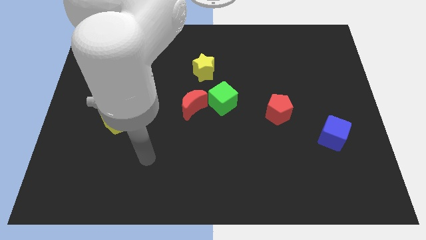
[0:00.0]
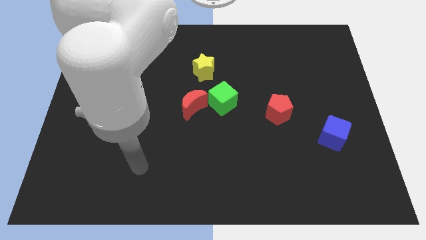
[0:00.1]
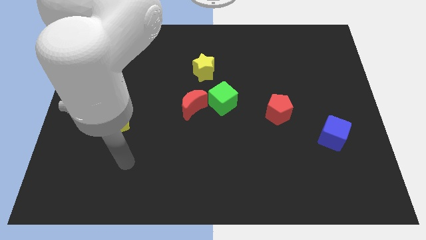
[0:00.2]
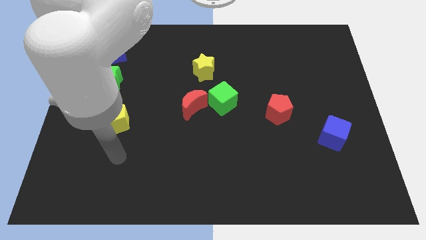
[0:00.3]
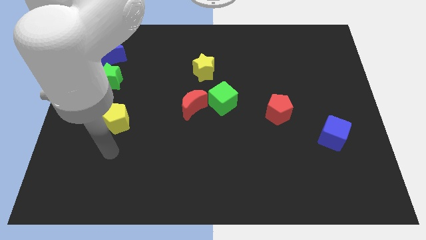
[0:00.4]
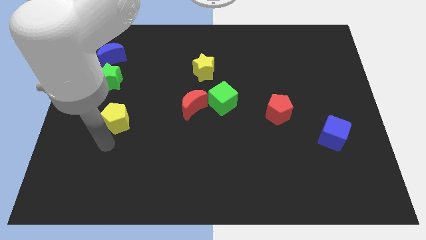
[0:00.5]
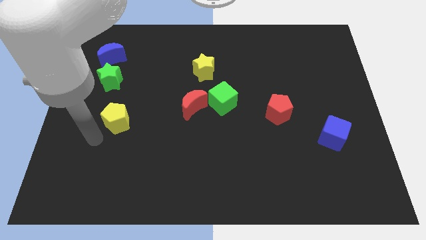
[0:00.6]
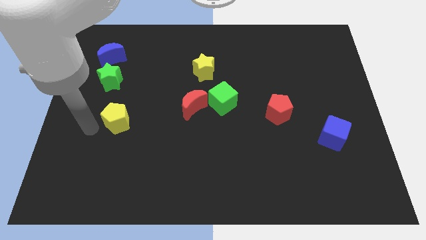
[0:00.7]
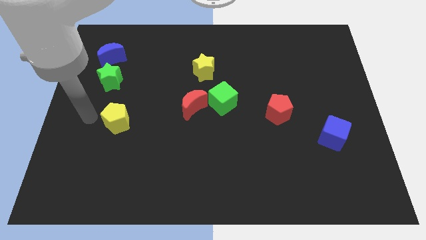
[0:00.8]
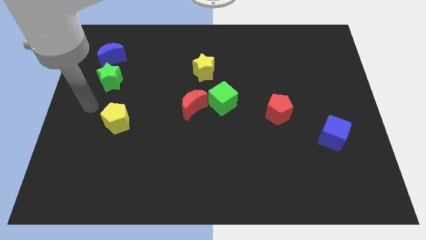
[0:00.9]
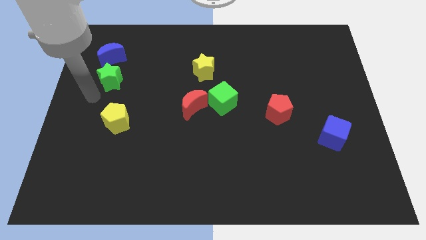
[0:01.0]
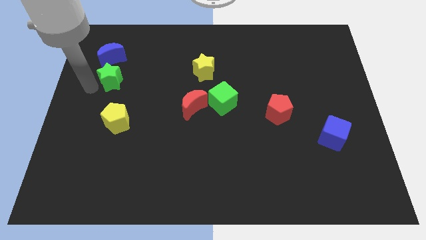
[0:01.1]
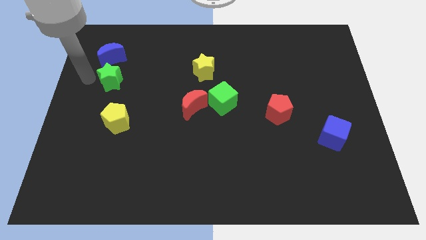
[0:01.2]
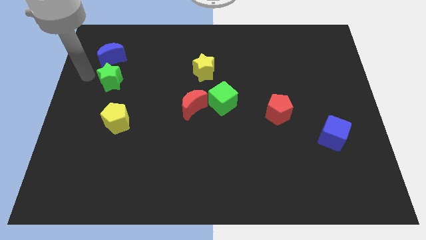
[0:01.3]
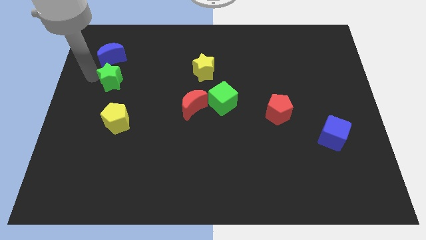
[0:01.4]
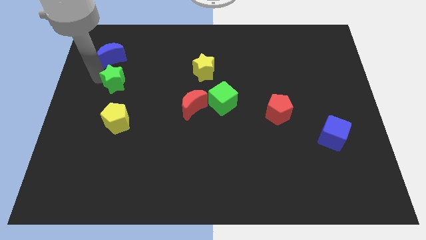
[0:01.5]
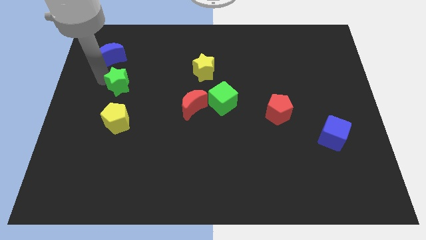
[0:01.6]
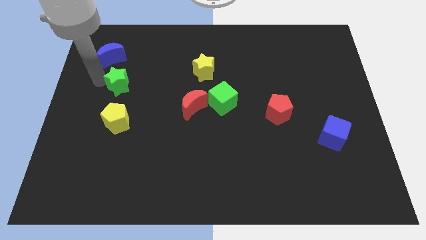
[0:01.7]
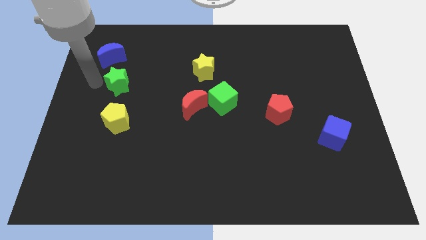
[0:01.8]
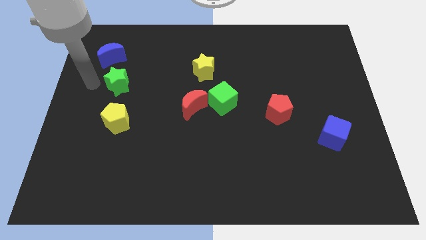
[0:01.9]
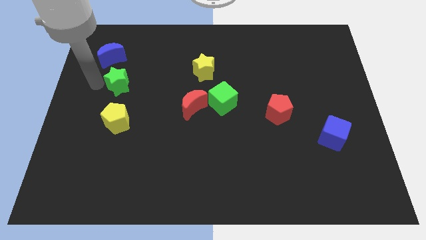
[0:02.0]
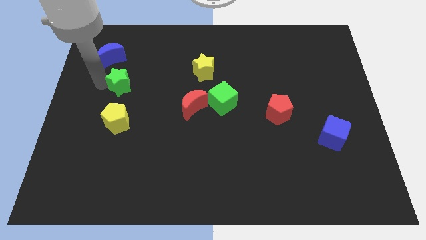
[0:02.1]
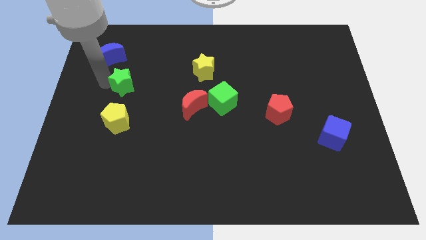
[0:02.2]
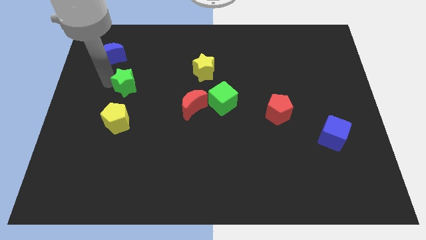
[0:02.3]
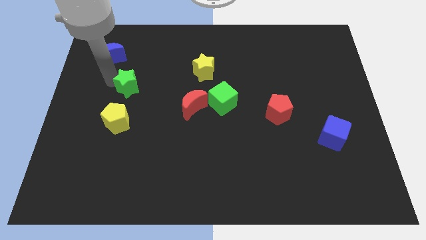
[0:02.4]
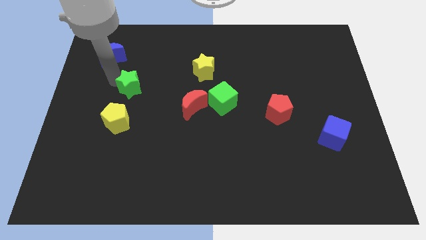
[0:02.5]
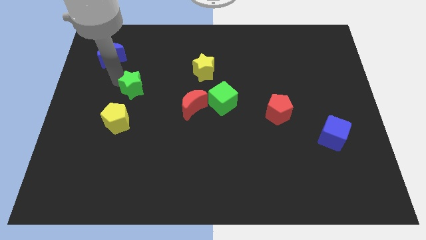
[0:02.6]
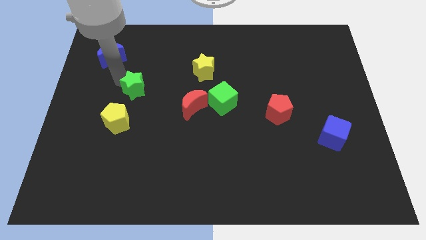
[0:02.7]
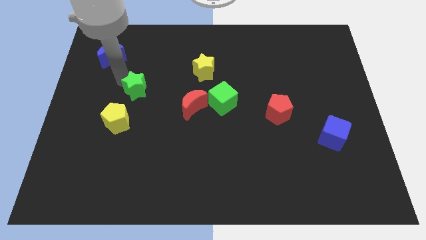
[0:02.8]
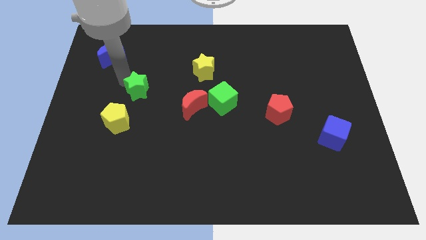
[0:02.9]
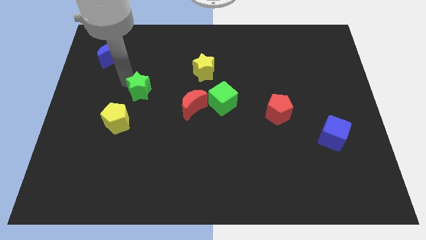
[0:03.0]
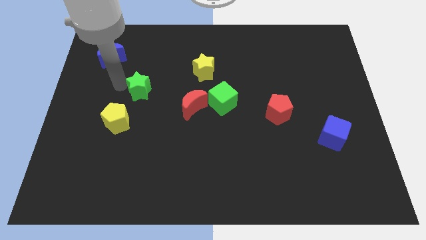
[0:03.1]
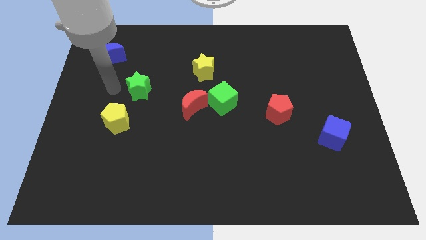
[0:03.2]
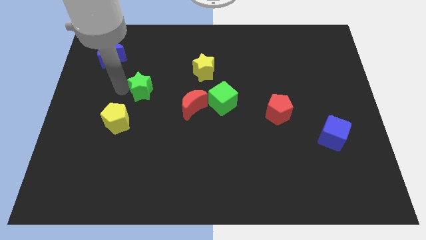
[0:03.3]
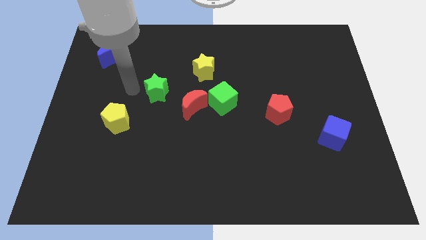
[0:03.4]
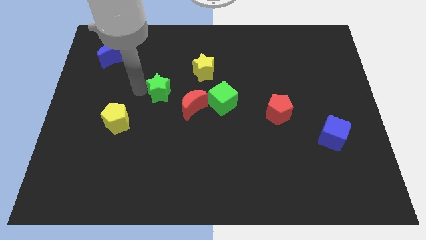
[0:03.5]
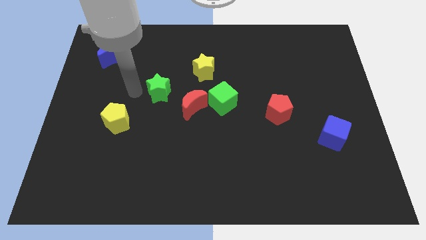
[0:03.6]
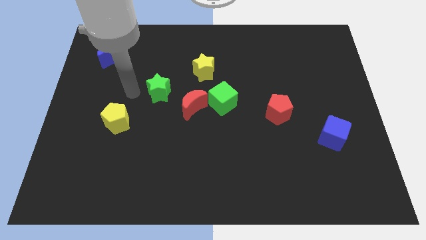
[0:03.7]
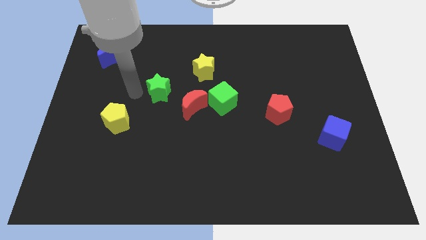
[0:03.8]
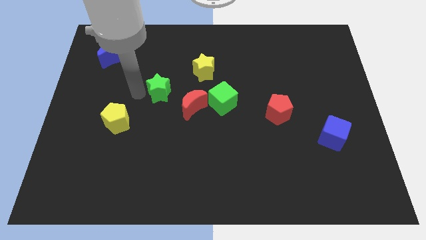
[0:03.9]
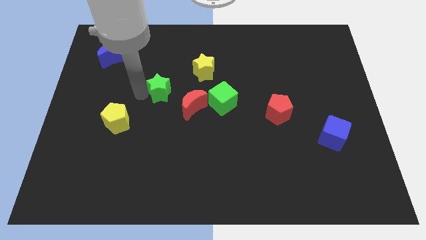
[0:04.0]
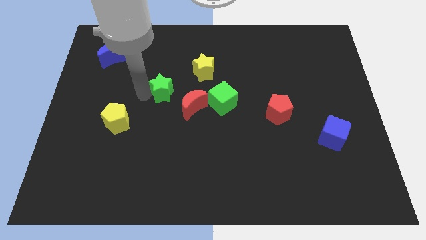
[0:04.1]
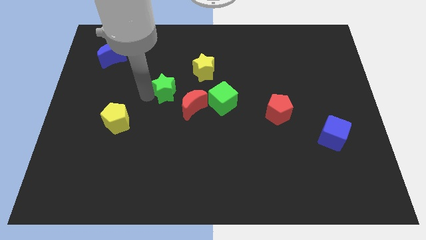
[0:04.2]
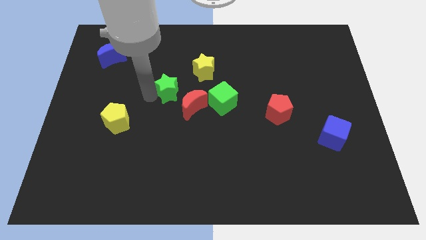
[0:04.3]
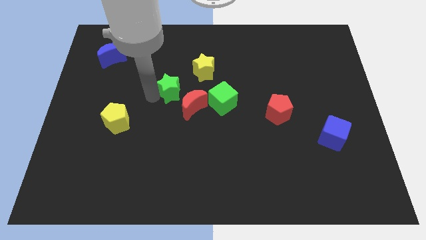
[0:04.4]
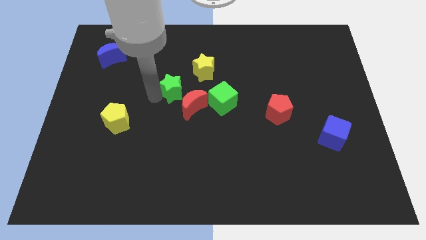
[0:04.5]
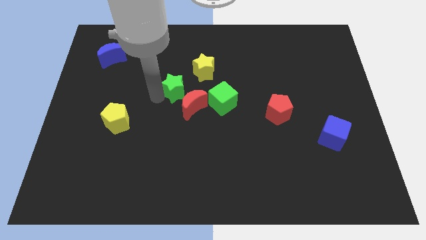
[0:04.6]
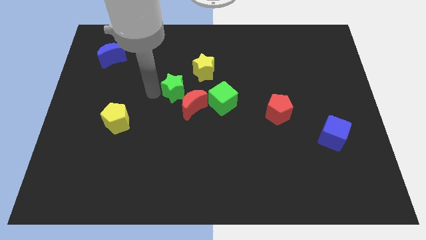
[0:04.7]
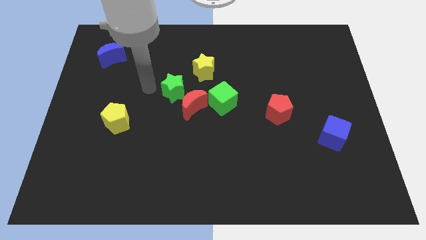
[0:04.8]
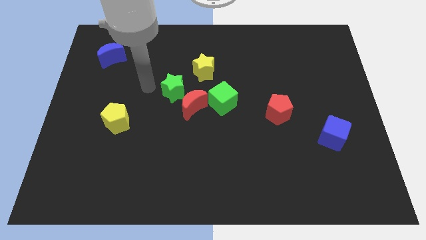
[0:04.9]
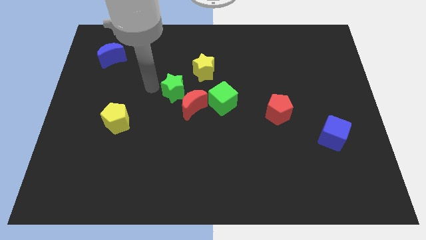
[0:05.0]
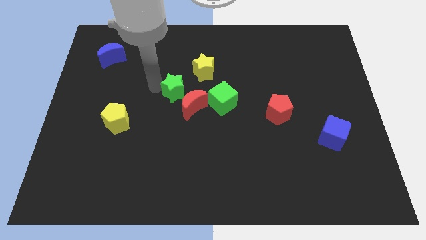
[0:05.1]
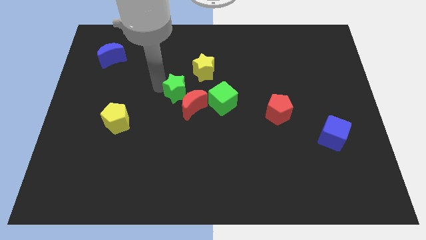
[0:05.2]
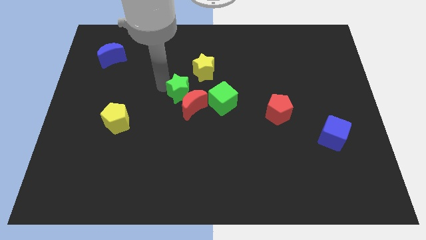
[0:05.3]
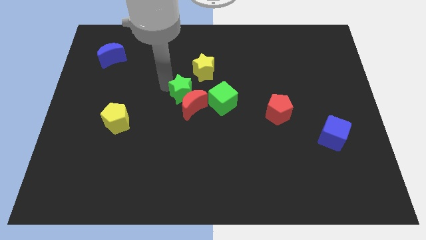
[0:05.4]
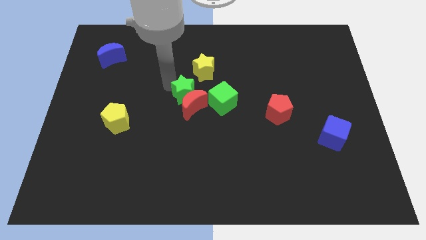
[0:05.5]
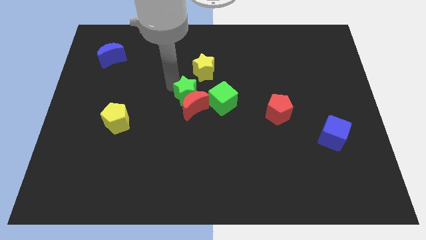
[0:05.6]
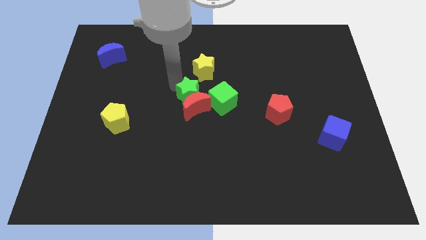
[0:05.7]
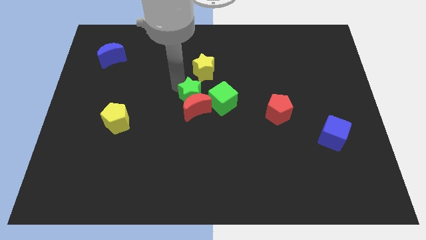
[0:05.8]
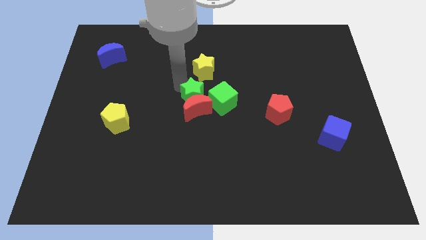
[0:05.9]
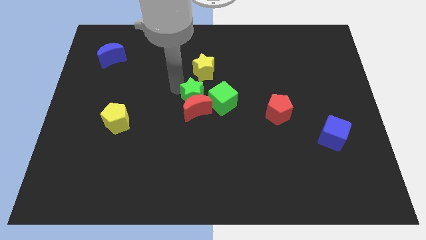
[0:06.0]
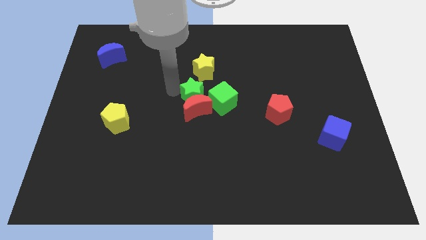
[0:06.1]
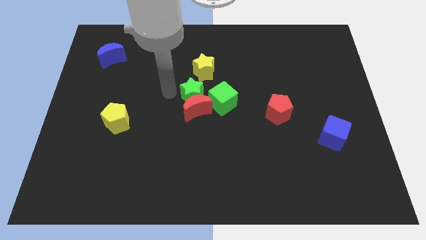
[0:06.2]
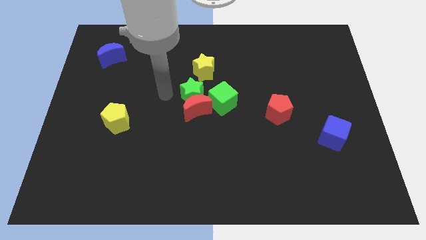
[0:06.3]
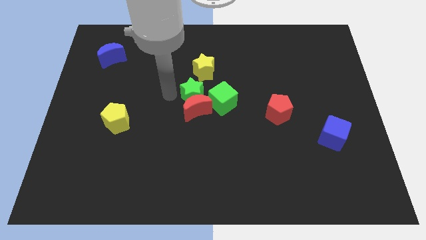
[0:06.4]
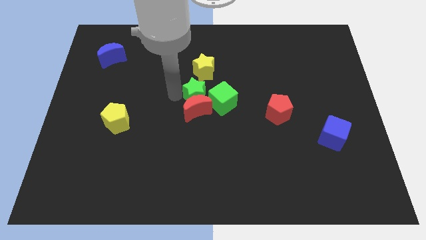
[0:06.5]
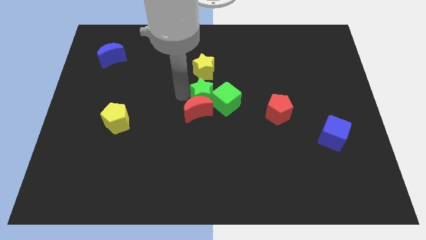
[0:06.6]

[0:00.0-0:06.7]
slide the green star next to the green cube

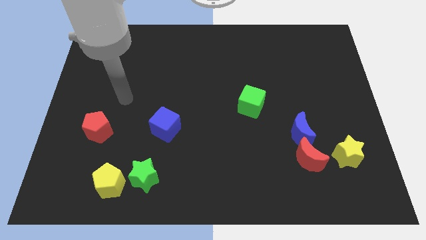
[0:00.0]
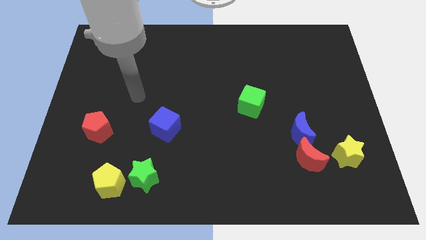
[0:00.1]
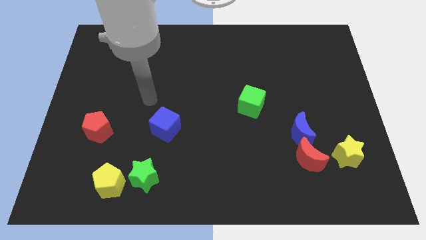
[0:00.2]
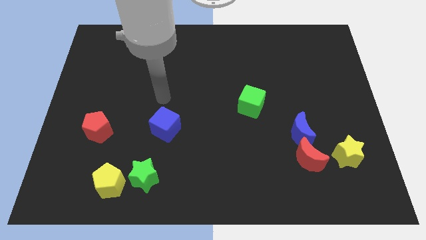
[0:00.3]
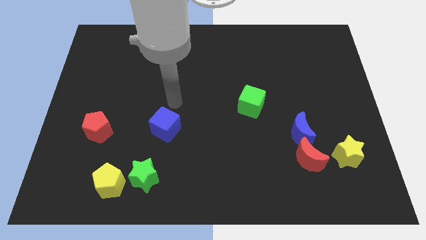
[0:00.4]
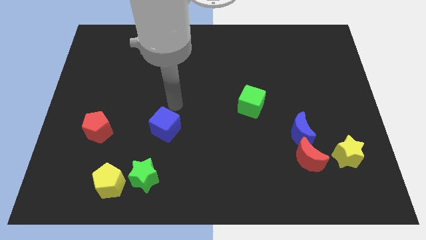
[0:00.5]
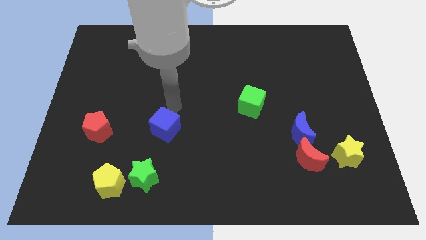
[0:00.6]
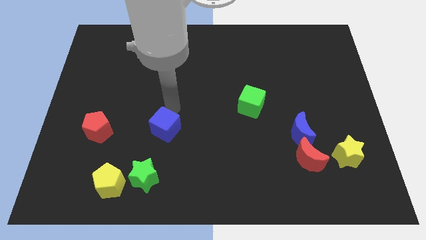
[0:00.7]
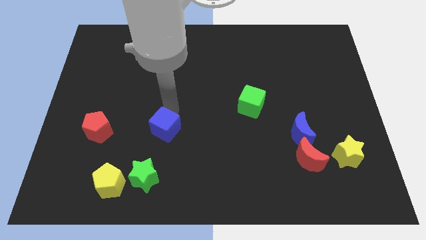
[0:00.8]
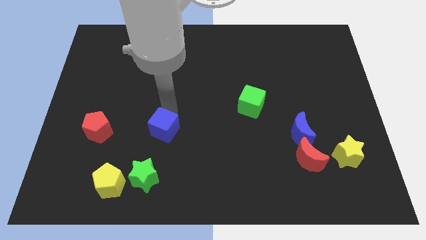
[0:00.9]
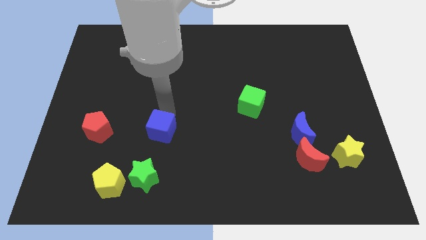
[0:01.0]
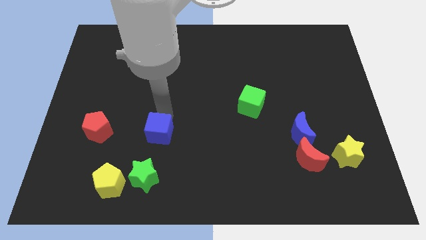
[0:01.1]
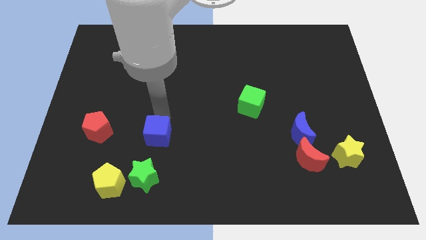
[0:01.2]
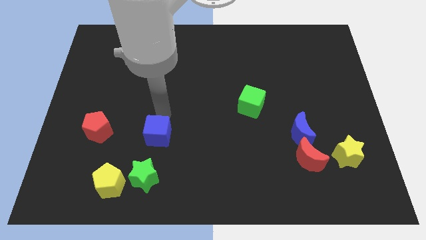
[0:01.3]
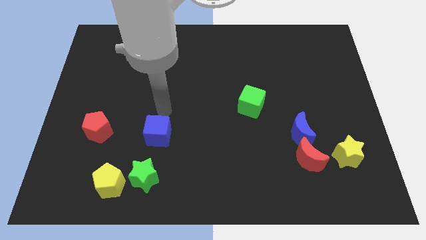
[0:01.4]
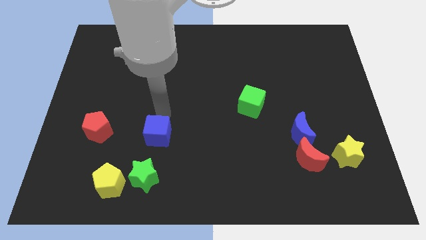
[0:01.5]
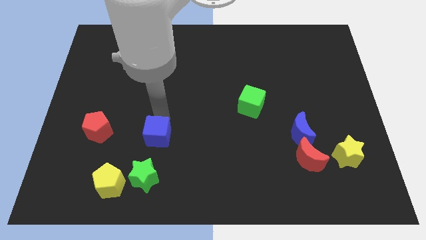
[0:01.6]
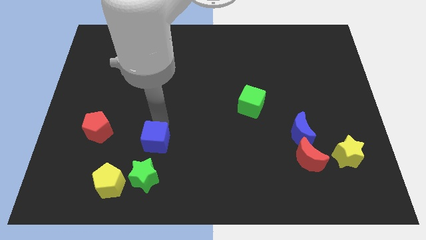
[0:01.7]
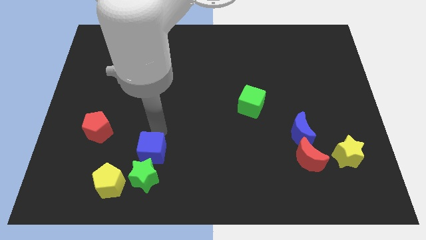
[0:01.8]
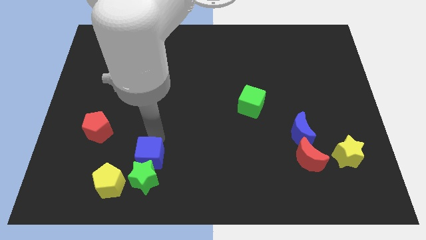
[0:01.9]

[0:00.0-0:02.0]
slide the blue cube to the green star
